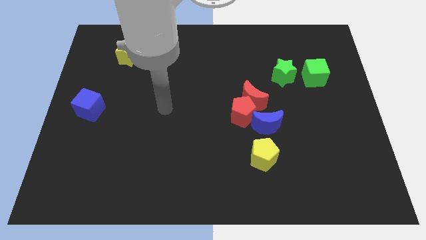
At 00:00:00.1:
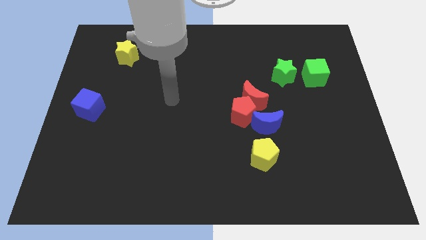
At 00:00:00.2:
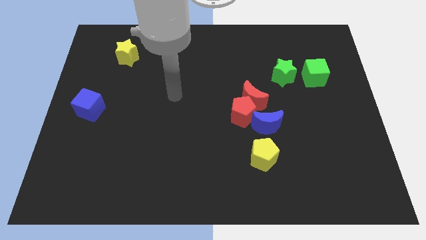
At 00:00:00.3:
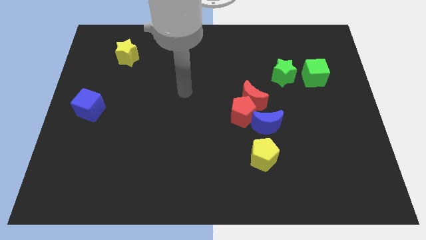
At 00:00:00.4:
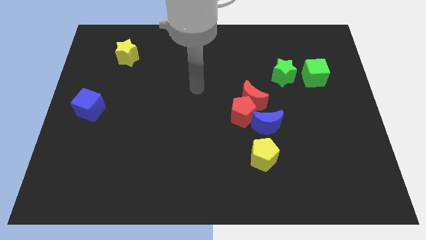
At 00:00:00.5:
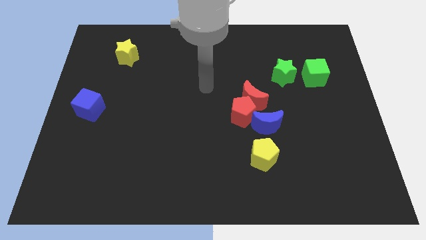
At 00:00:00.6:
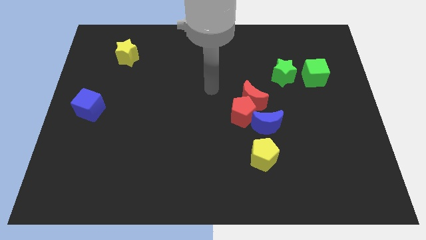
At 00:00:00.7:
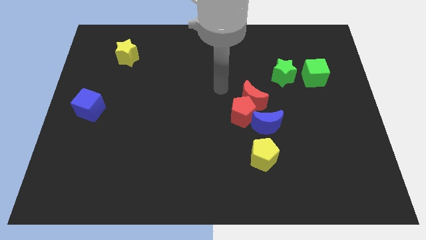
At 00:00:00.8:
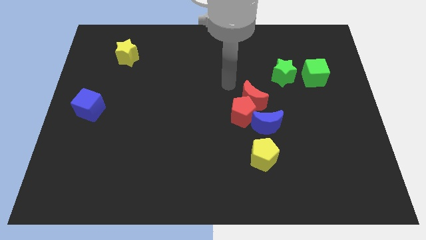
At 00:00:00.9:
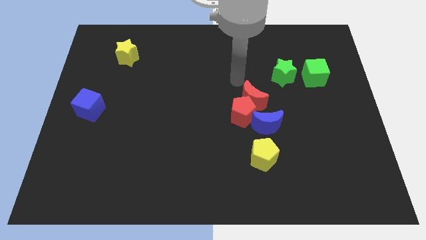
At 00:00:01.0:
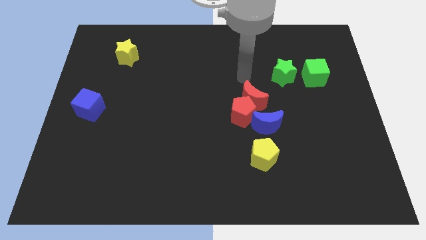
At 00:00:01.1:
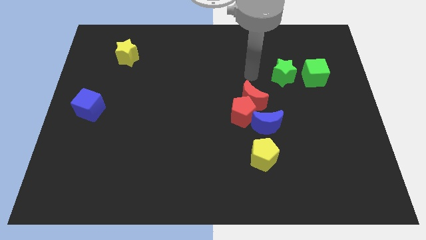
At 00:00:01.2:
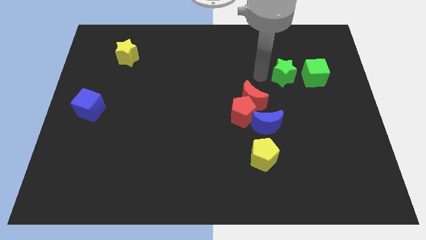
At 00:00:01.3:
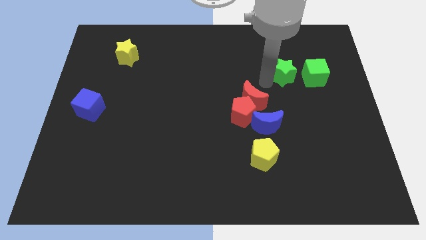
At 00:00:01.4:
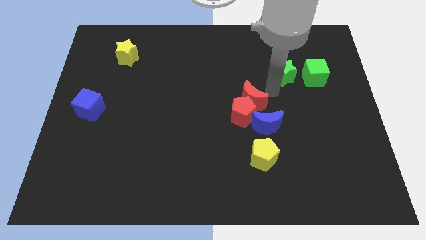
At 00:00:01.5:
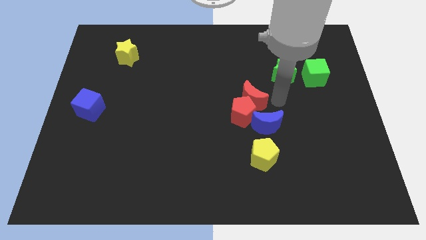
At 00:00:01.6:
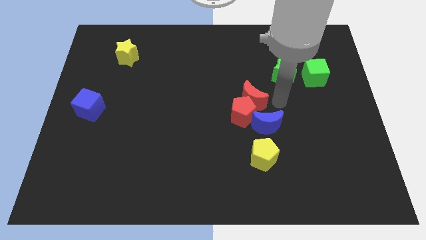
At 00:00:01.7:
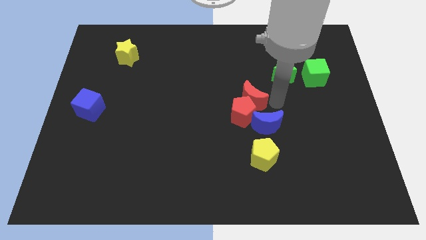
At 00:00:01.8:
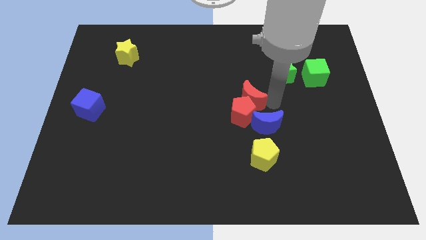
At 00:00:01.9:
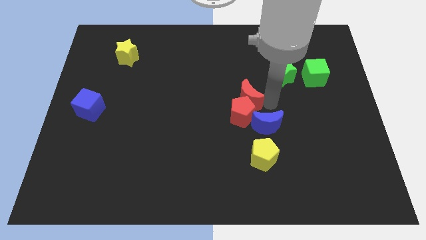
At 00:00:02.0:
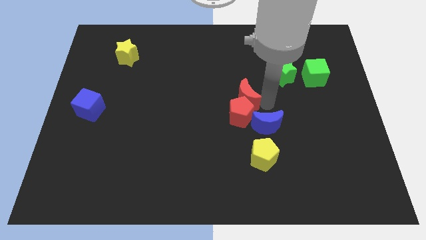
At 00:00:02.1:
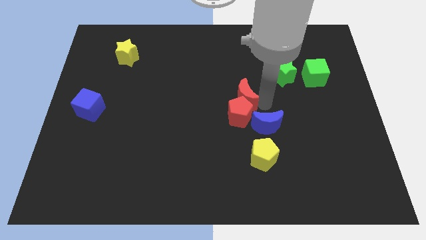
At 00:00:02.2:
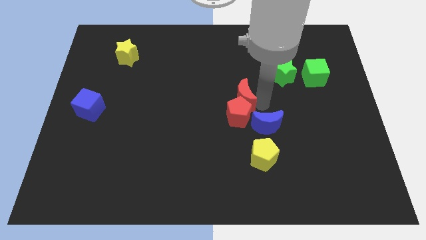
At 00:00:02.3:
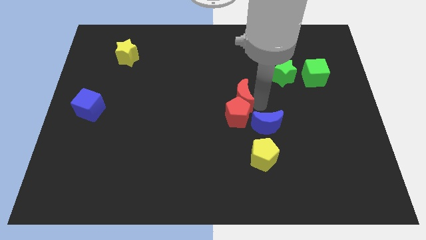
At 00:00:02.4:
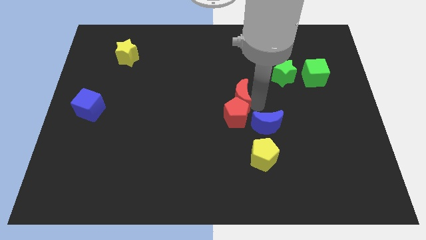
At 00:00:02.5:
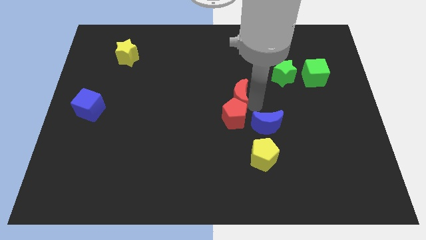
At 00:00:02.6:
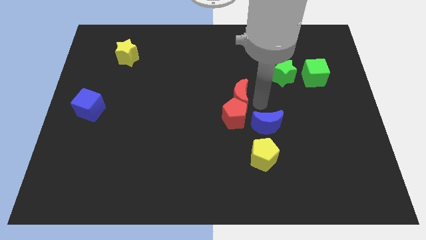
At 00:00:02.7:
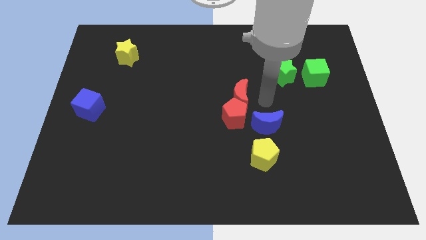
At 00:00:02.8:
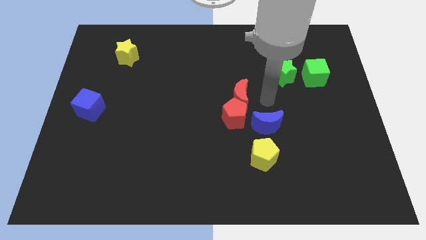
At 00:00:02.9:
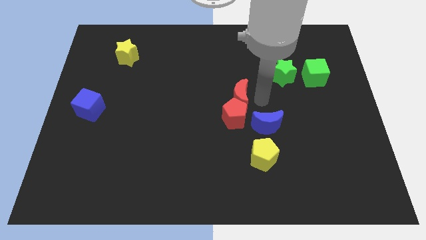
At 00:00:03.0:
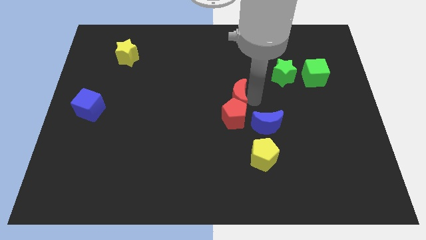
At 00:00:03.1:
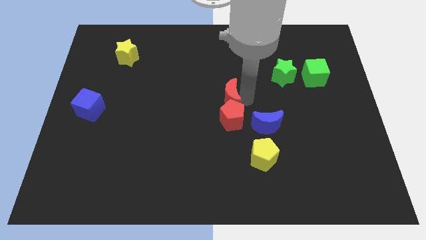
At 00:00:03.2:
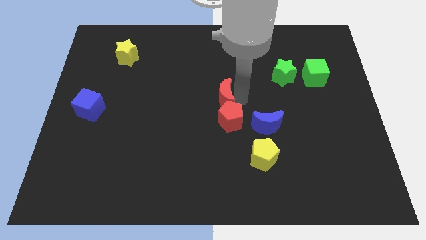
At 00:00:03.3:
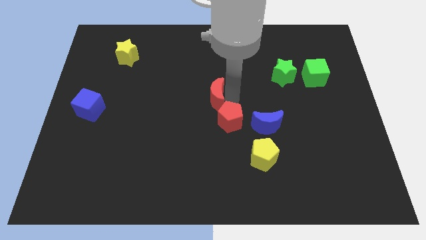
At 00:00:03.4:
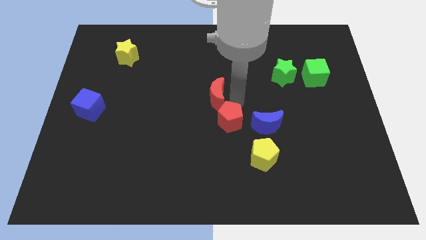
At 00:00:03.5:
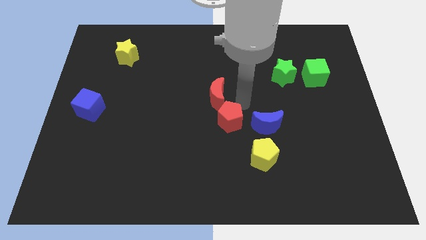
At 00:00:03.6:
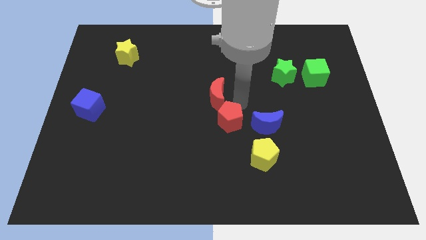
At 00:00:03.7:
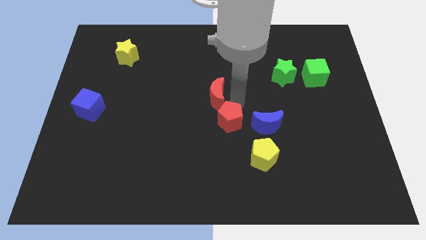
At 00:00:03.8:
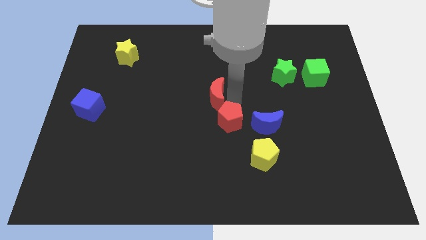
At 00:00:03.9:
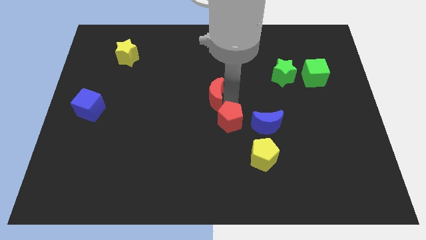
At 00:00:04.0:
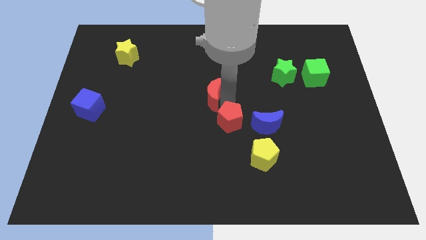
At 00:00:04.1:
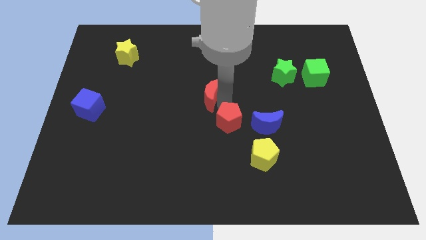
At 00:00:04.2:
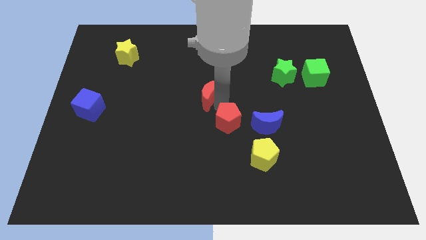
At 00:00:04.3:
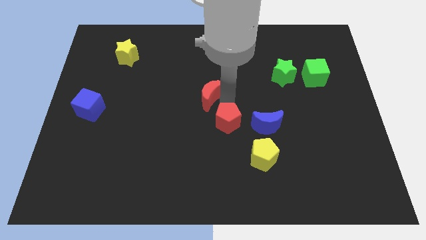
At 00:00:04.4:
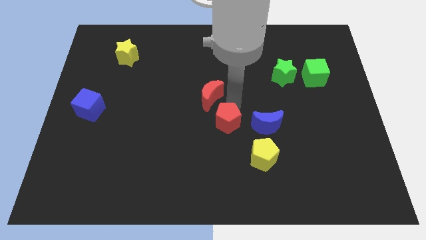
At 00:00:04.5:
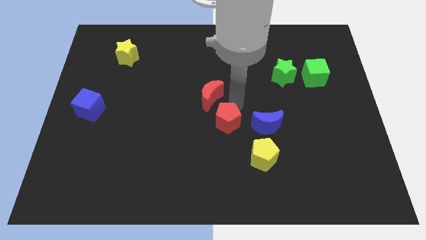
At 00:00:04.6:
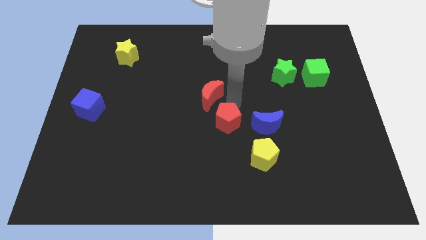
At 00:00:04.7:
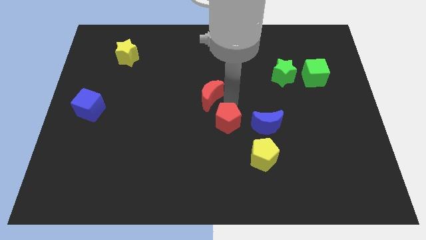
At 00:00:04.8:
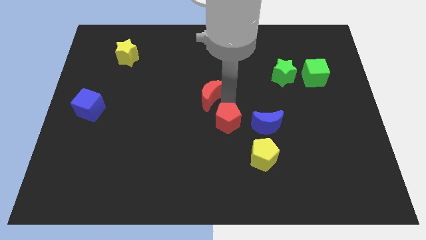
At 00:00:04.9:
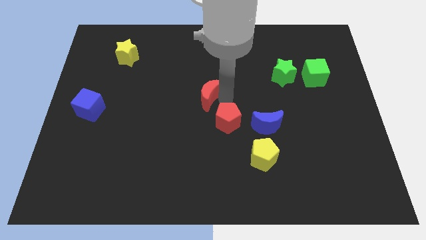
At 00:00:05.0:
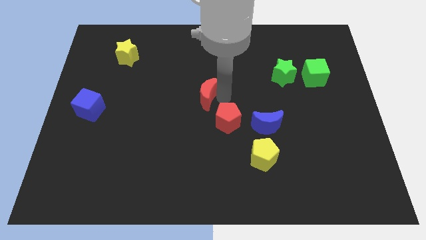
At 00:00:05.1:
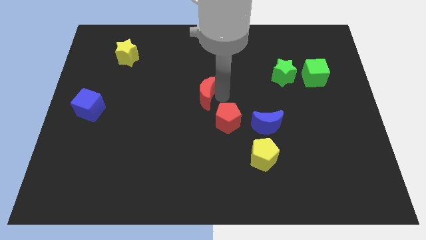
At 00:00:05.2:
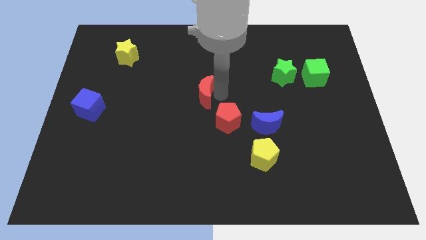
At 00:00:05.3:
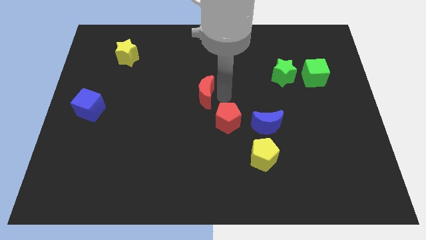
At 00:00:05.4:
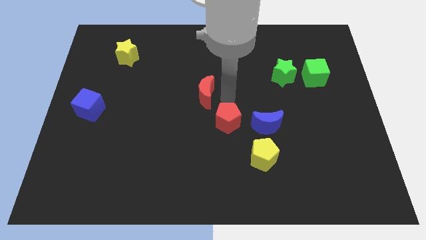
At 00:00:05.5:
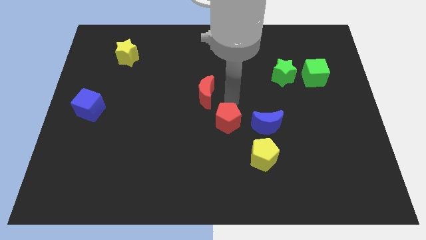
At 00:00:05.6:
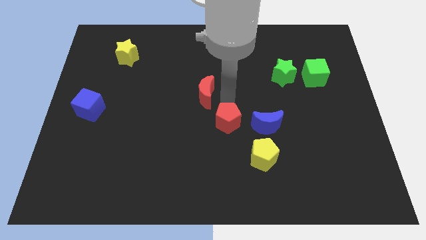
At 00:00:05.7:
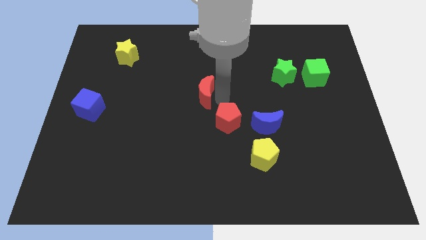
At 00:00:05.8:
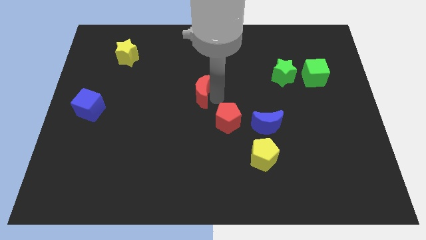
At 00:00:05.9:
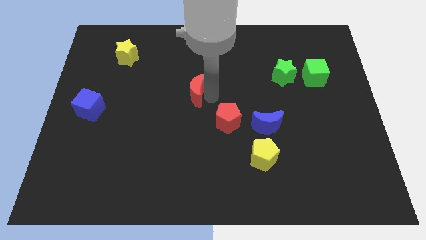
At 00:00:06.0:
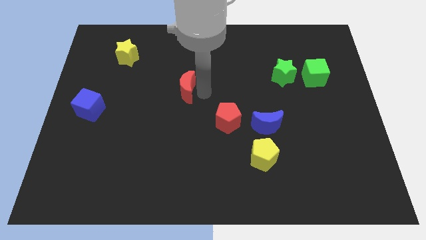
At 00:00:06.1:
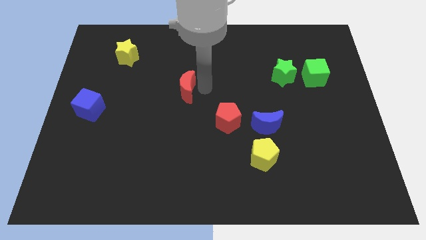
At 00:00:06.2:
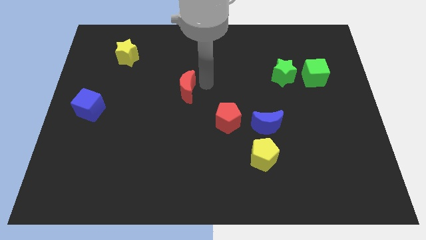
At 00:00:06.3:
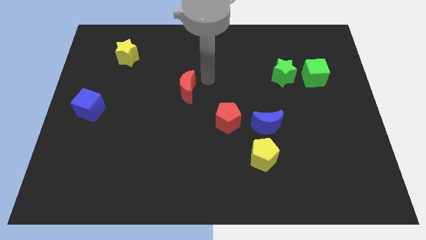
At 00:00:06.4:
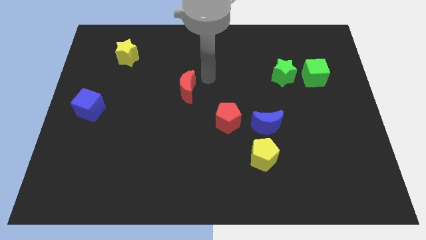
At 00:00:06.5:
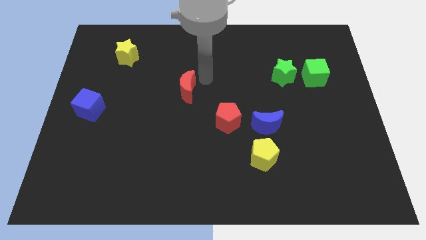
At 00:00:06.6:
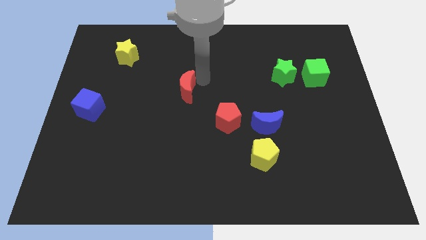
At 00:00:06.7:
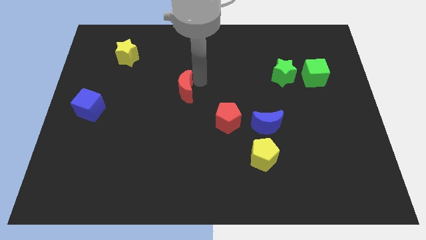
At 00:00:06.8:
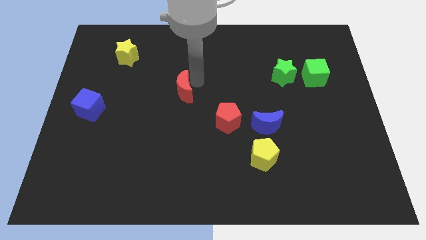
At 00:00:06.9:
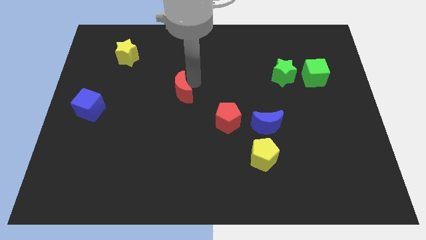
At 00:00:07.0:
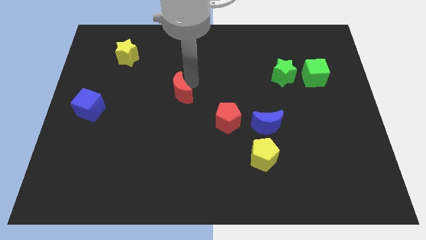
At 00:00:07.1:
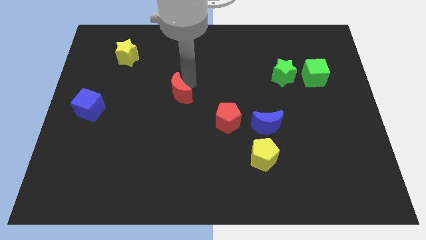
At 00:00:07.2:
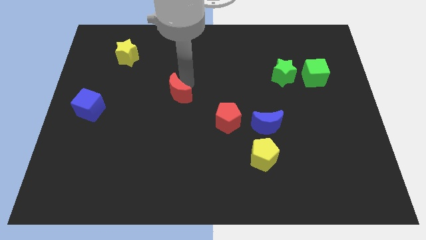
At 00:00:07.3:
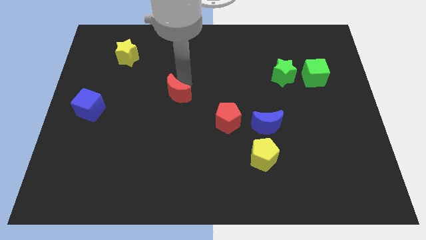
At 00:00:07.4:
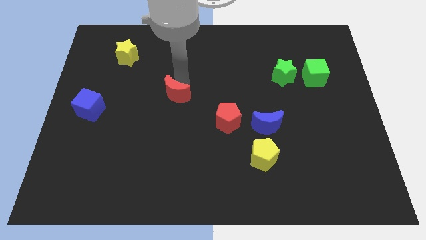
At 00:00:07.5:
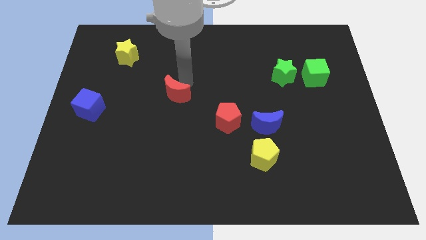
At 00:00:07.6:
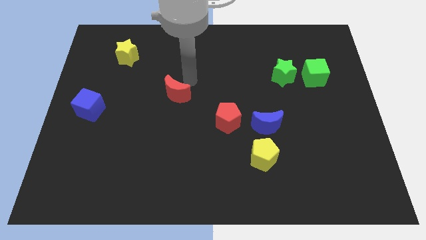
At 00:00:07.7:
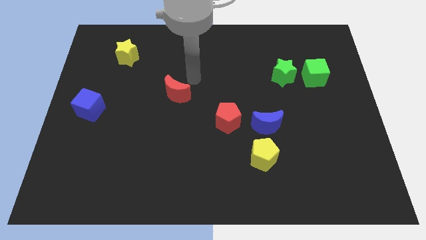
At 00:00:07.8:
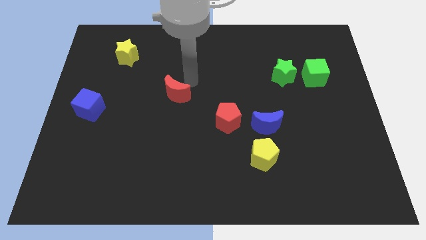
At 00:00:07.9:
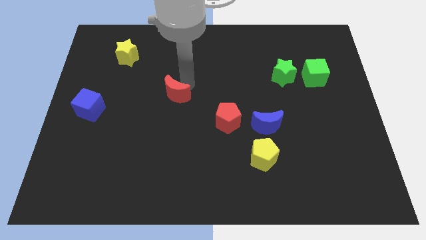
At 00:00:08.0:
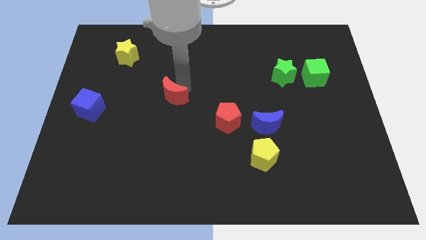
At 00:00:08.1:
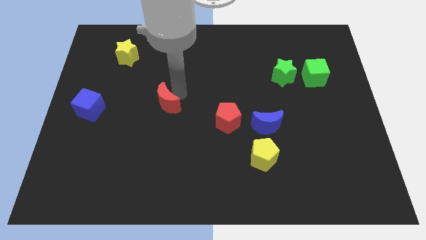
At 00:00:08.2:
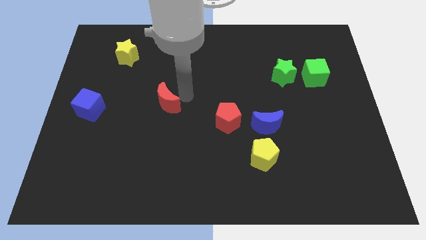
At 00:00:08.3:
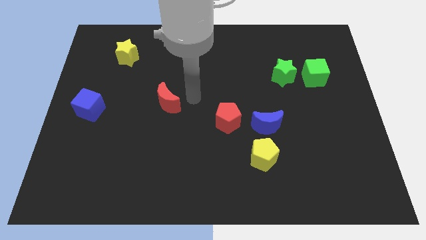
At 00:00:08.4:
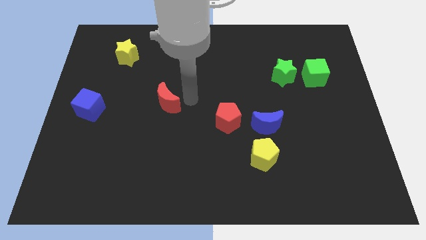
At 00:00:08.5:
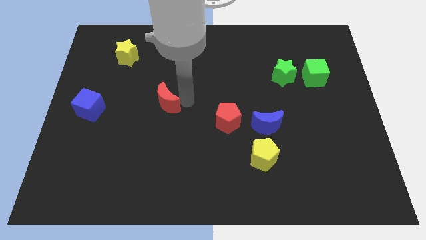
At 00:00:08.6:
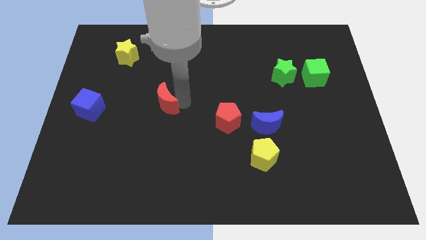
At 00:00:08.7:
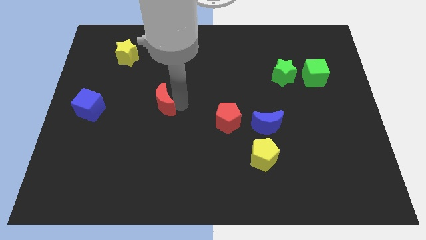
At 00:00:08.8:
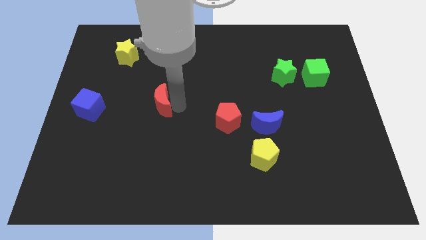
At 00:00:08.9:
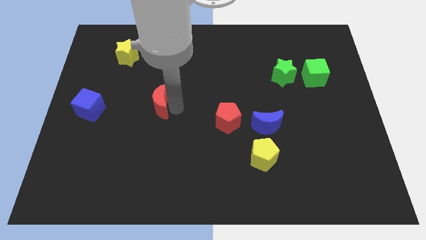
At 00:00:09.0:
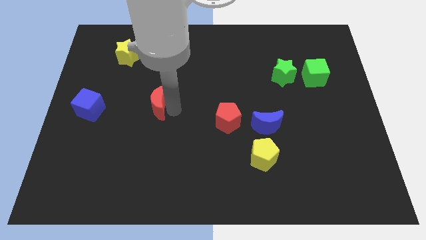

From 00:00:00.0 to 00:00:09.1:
push the red moon just right of the blue cube
